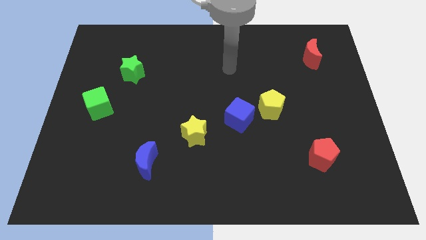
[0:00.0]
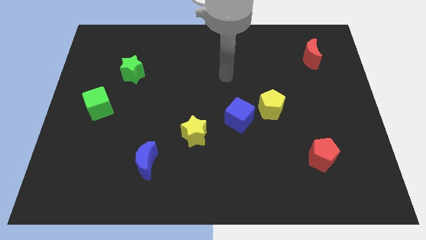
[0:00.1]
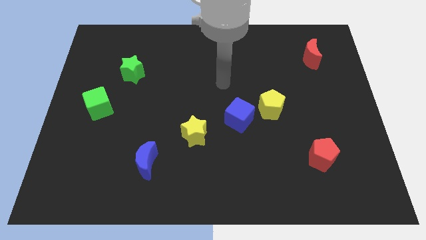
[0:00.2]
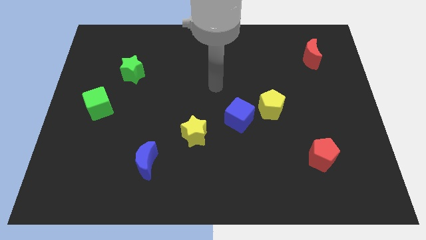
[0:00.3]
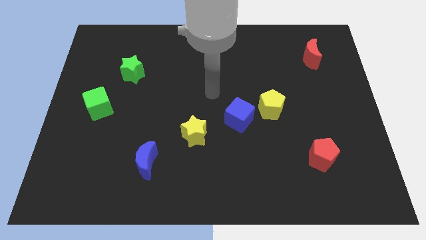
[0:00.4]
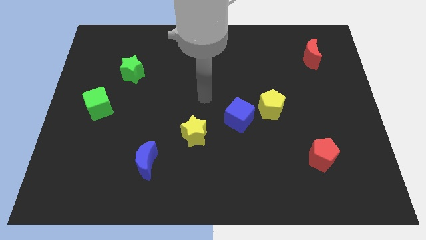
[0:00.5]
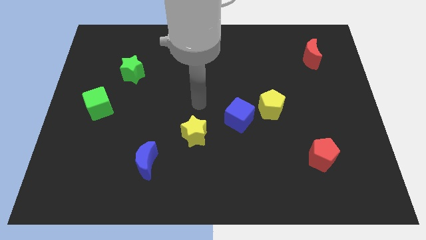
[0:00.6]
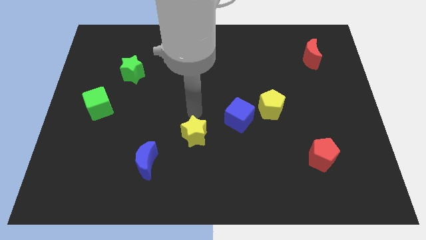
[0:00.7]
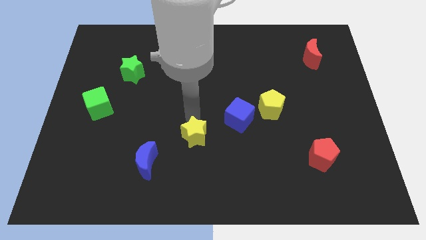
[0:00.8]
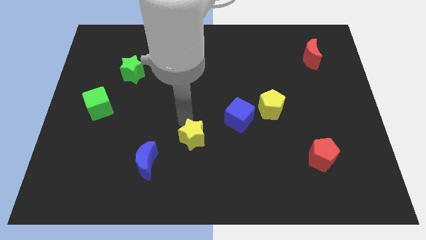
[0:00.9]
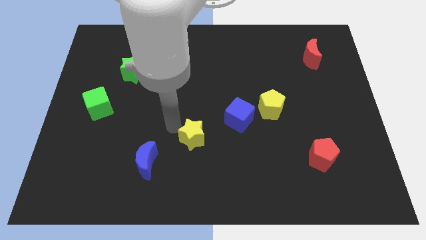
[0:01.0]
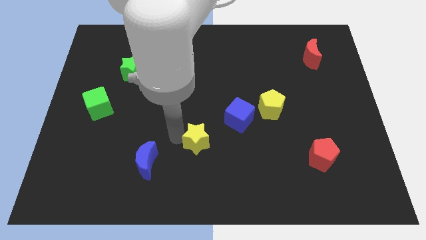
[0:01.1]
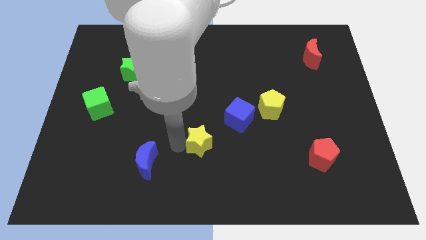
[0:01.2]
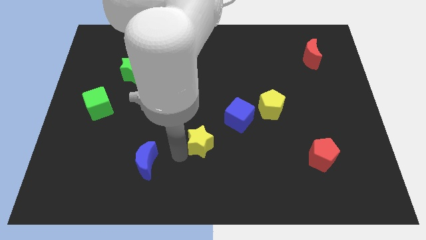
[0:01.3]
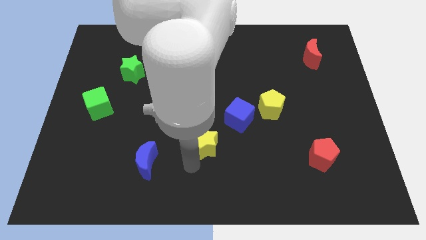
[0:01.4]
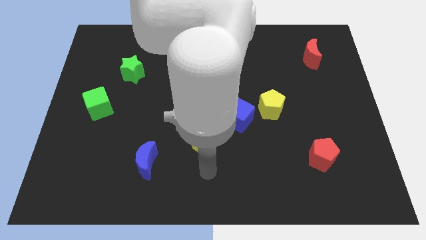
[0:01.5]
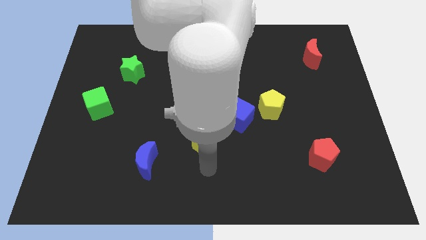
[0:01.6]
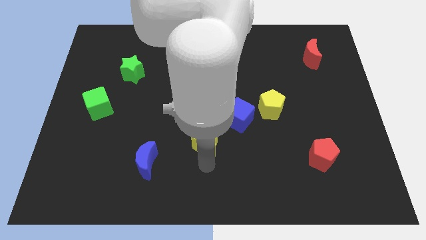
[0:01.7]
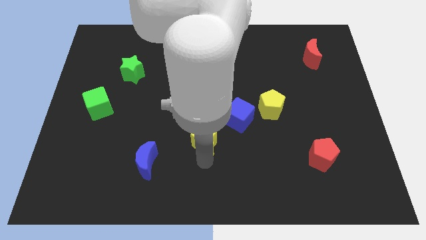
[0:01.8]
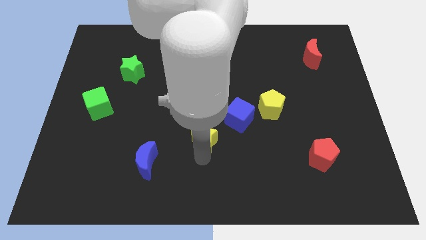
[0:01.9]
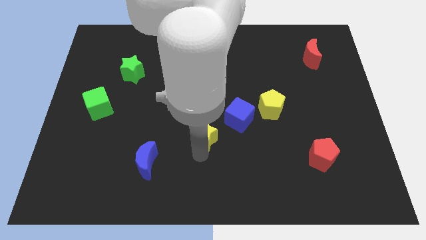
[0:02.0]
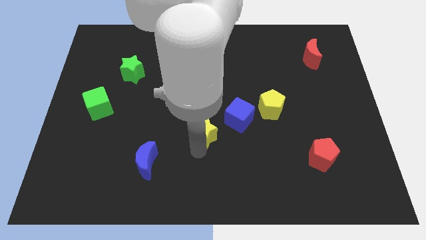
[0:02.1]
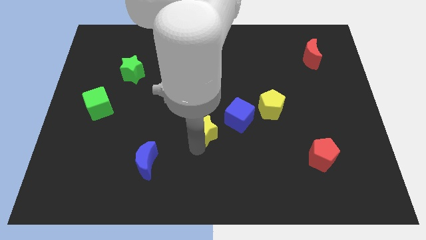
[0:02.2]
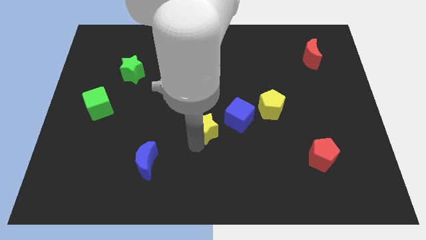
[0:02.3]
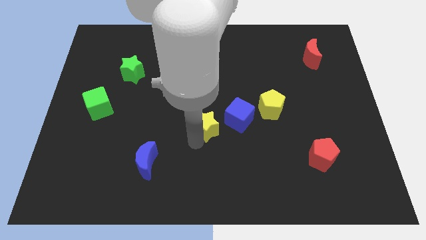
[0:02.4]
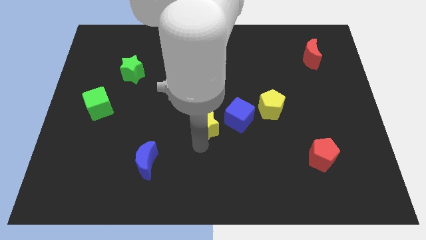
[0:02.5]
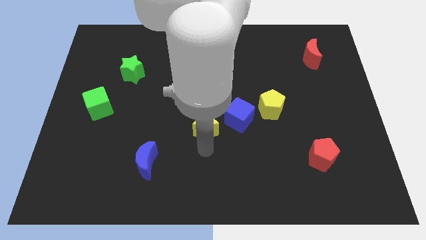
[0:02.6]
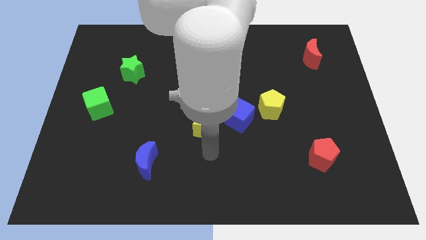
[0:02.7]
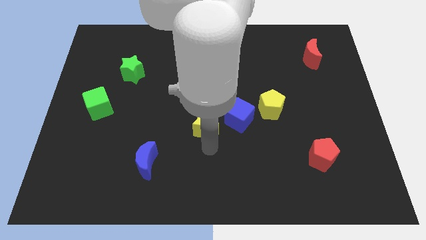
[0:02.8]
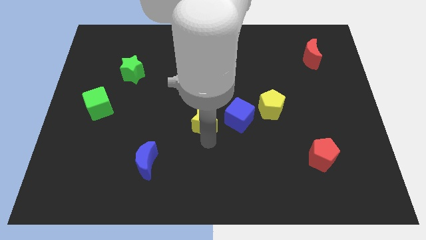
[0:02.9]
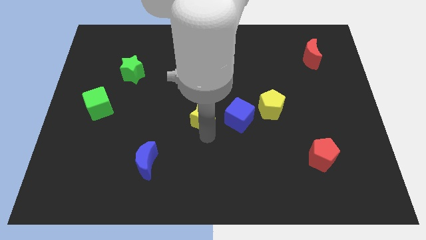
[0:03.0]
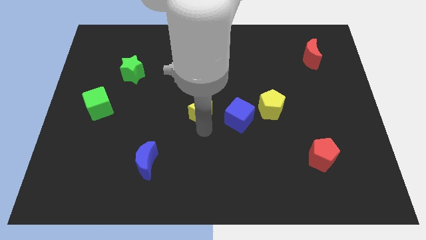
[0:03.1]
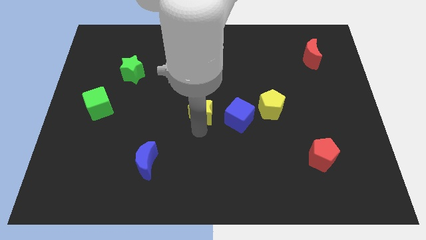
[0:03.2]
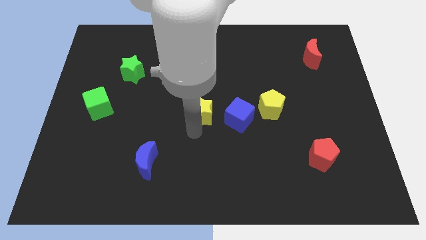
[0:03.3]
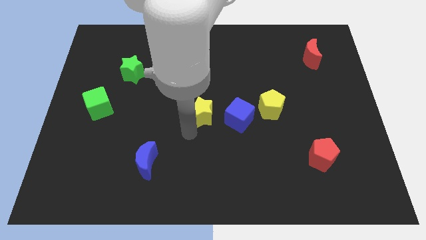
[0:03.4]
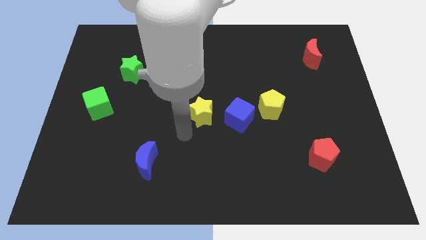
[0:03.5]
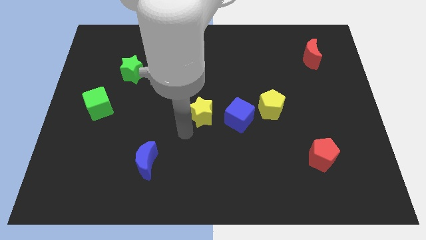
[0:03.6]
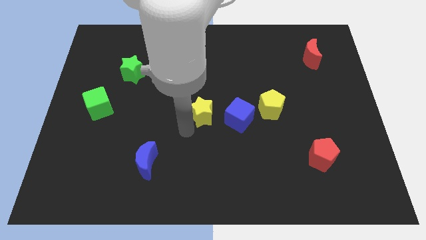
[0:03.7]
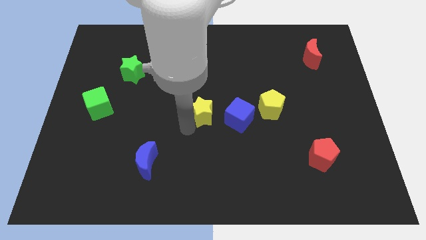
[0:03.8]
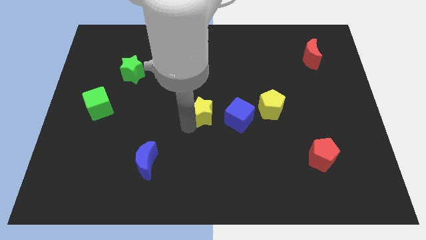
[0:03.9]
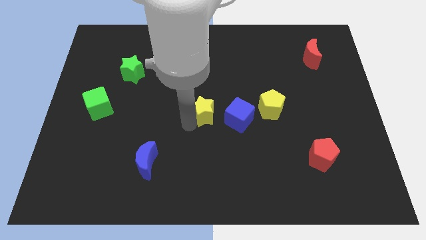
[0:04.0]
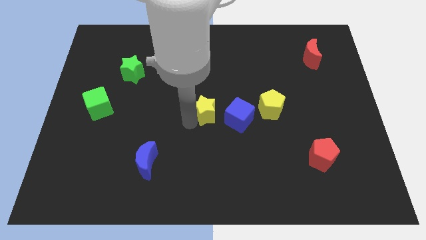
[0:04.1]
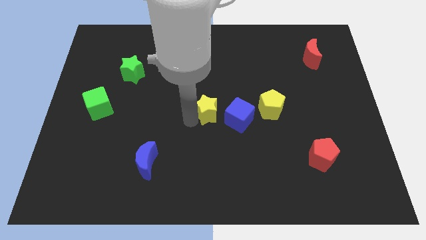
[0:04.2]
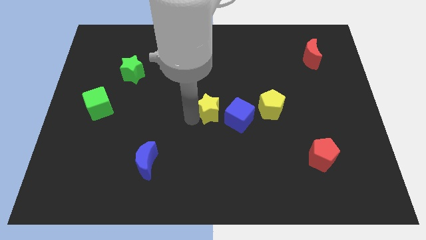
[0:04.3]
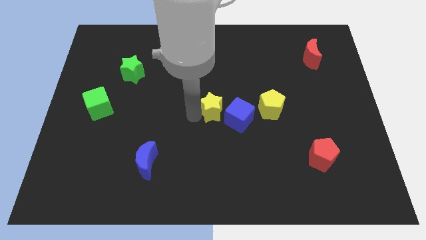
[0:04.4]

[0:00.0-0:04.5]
push the yellow star a little diagonally upwards and right

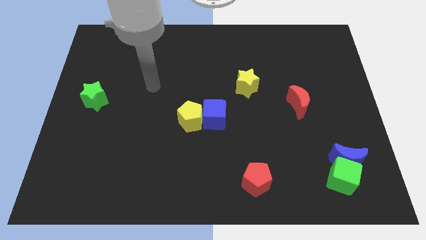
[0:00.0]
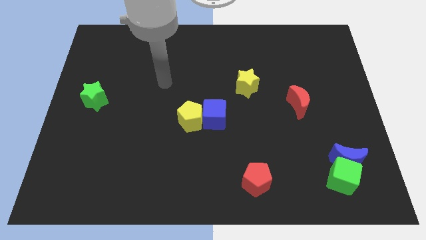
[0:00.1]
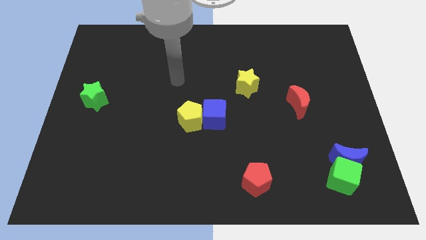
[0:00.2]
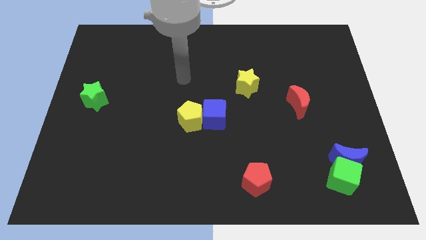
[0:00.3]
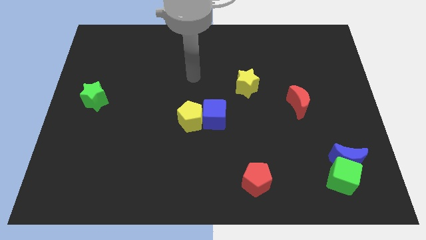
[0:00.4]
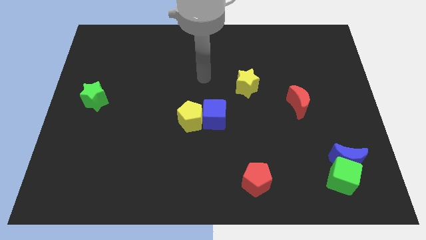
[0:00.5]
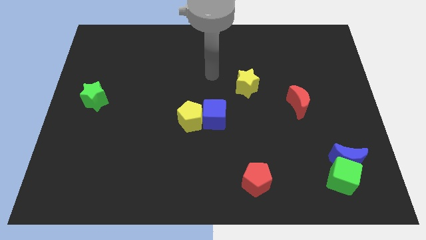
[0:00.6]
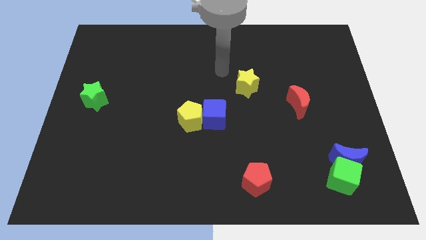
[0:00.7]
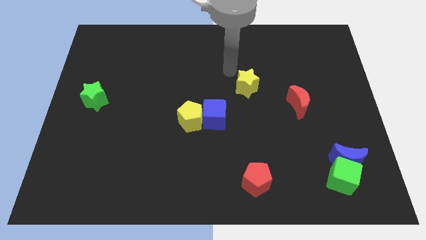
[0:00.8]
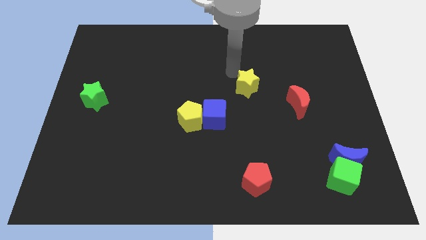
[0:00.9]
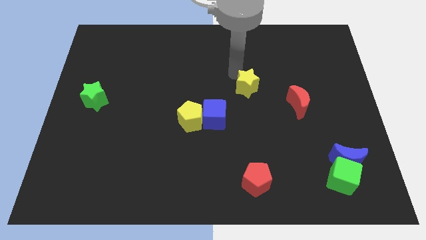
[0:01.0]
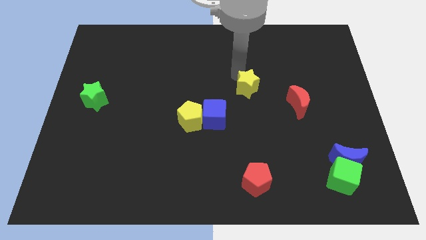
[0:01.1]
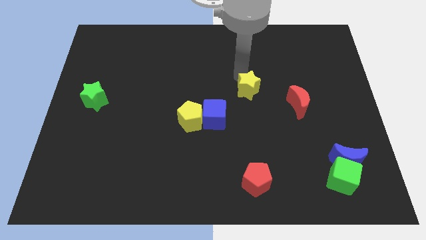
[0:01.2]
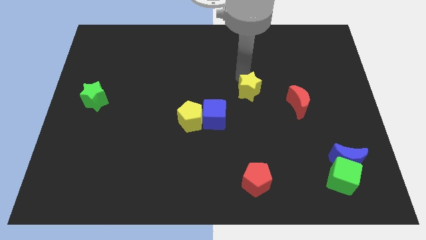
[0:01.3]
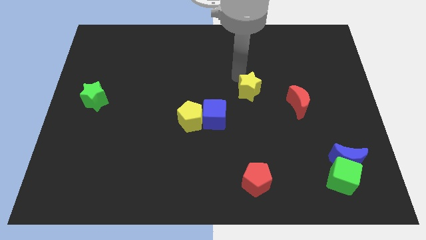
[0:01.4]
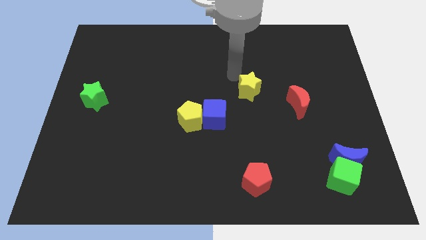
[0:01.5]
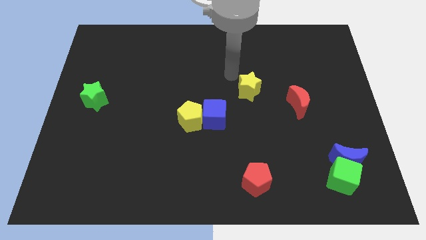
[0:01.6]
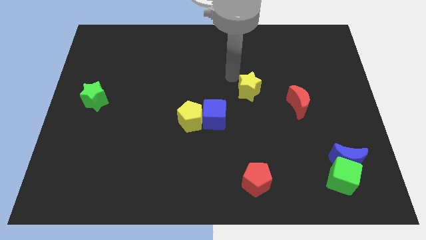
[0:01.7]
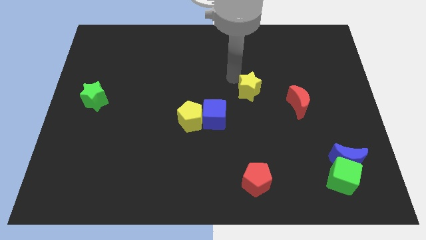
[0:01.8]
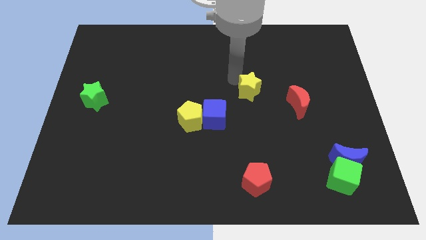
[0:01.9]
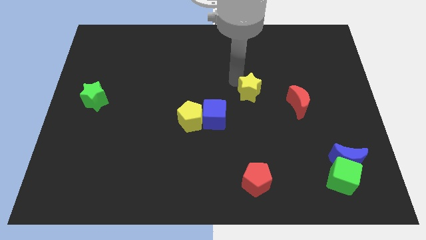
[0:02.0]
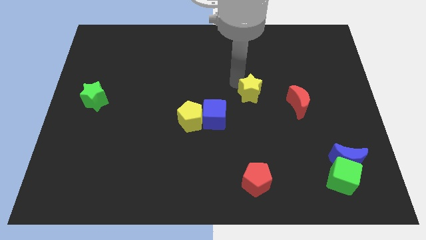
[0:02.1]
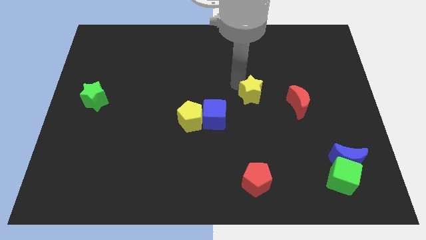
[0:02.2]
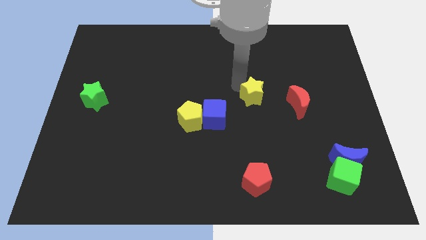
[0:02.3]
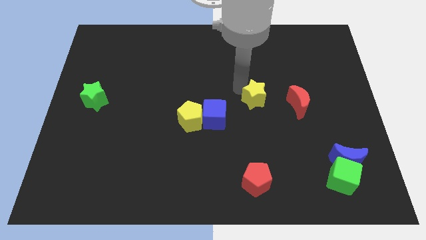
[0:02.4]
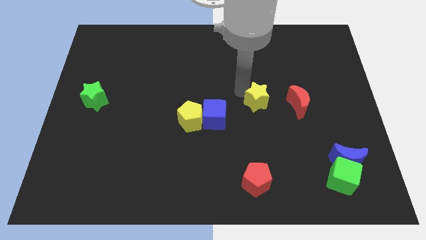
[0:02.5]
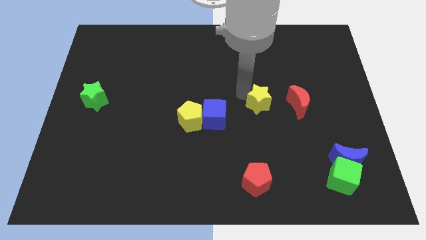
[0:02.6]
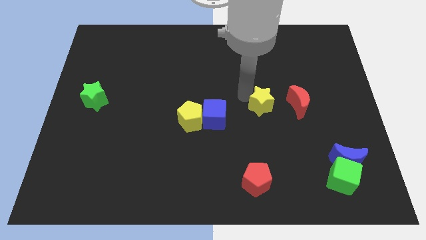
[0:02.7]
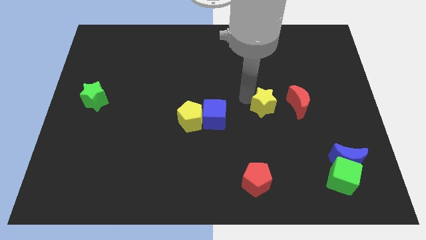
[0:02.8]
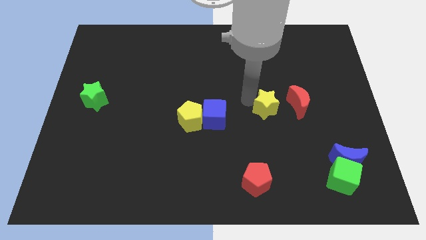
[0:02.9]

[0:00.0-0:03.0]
push the yellow star down and to the right a little bit

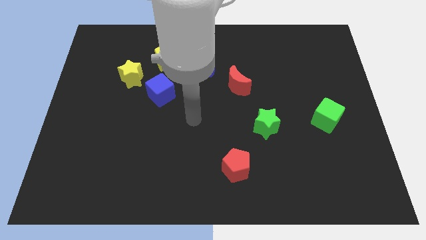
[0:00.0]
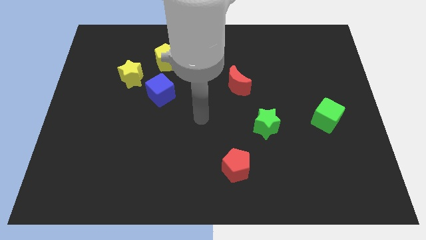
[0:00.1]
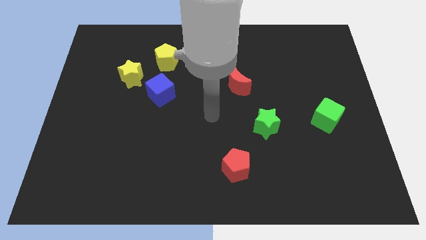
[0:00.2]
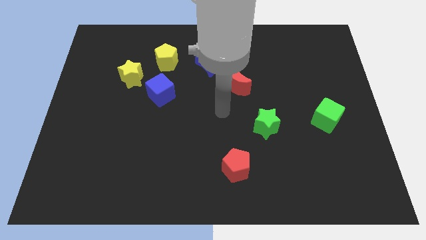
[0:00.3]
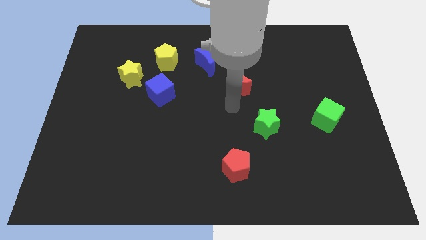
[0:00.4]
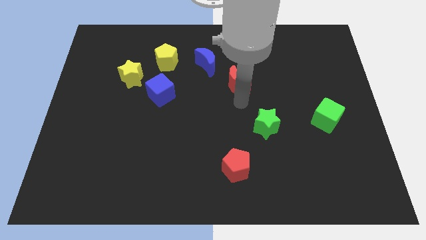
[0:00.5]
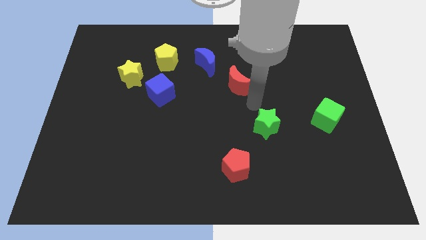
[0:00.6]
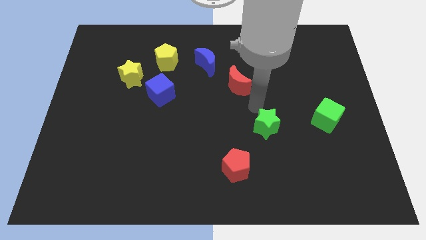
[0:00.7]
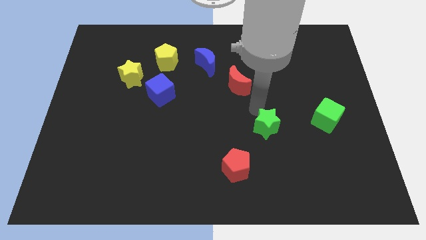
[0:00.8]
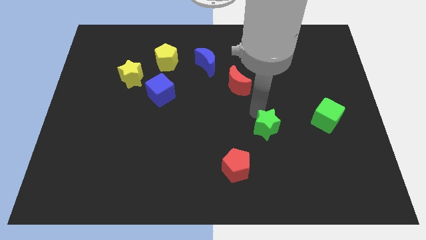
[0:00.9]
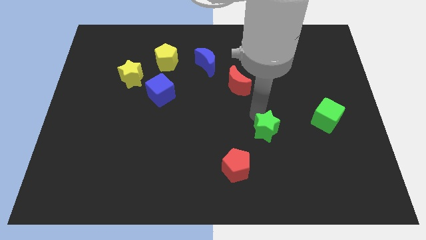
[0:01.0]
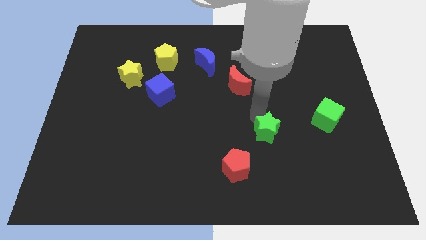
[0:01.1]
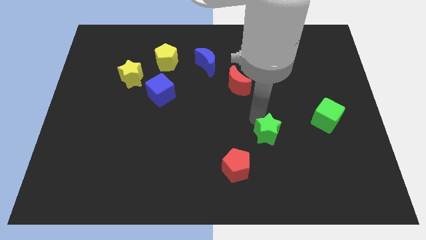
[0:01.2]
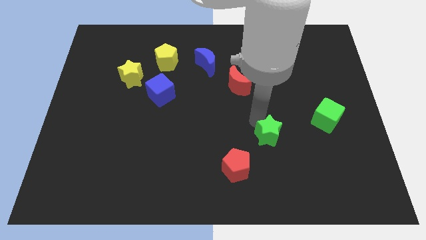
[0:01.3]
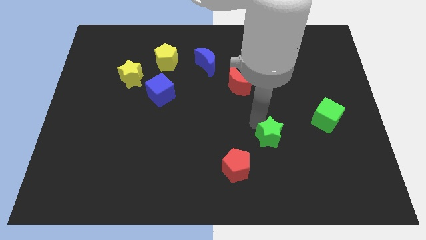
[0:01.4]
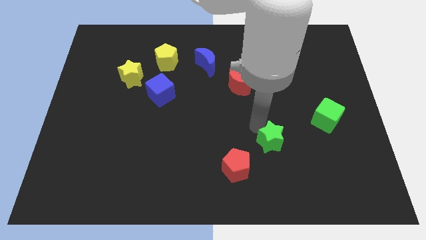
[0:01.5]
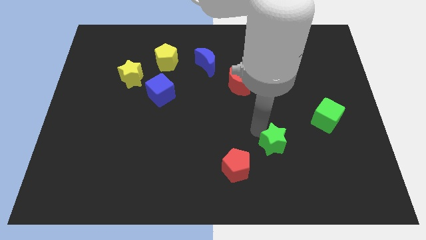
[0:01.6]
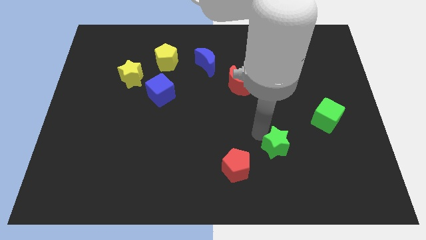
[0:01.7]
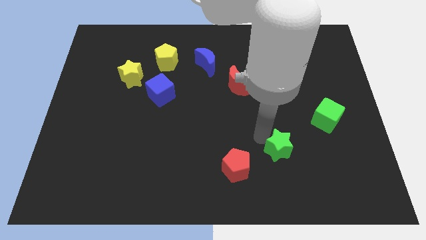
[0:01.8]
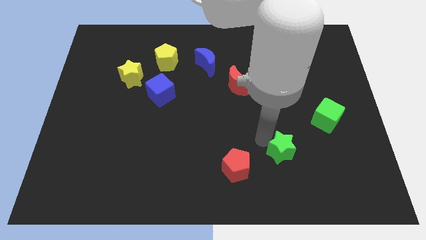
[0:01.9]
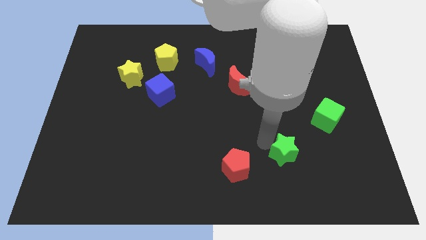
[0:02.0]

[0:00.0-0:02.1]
push the green star downwards and to the right a little
